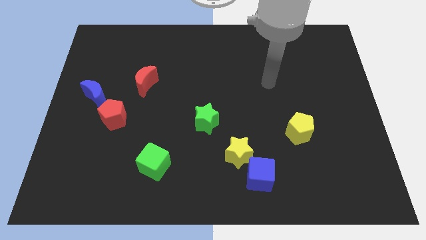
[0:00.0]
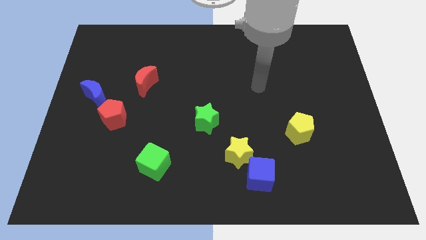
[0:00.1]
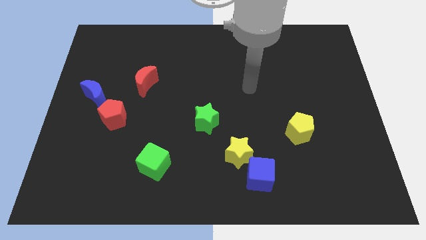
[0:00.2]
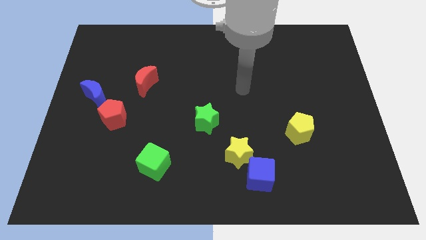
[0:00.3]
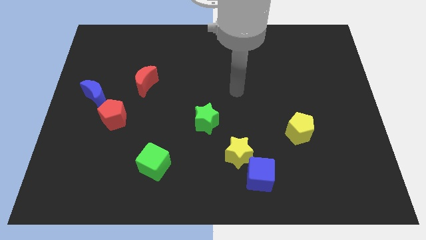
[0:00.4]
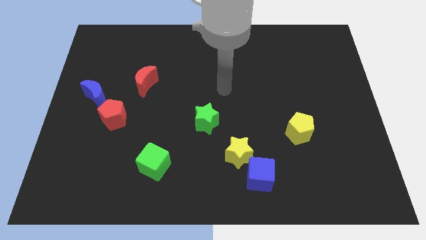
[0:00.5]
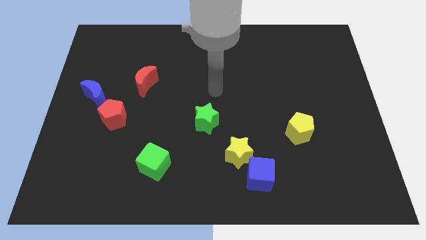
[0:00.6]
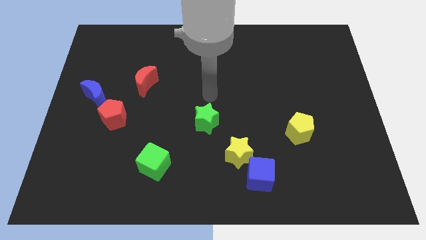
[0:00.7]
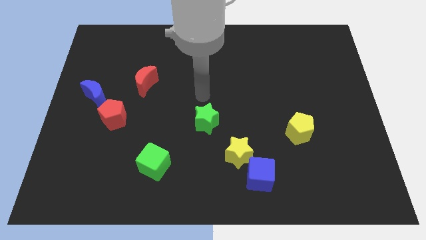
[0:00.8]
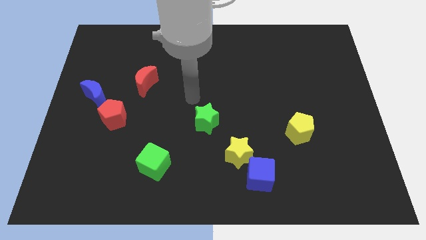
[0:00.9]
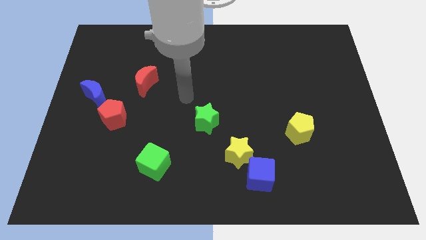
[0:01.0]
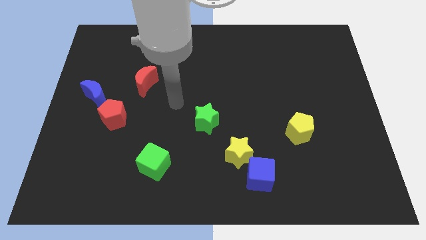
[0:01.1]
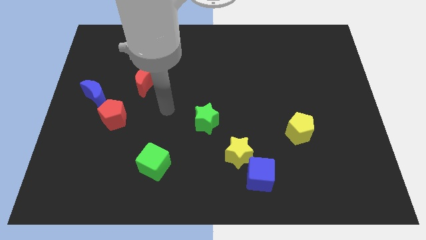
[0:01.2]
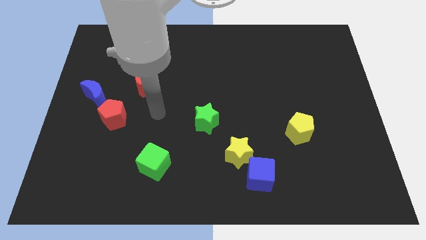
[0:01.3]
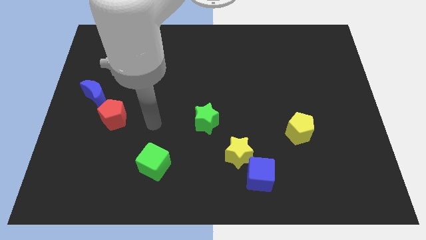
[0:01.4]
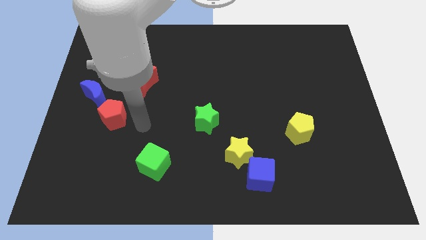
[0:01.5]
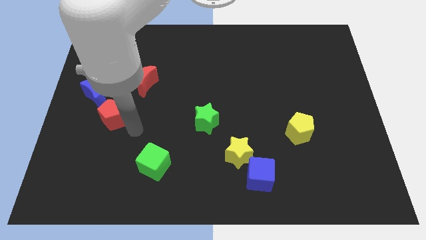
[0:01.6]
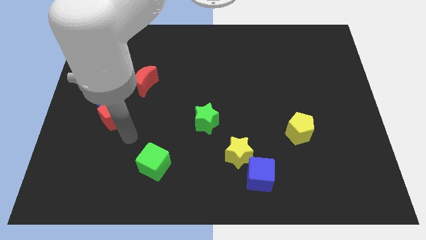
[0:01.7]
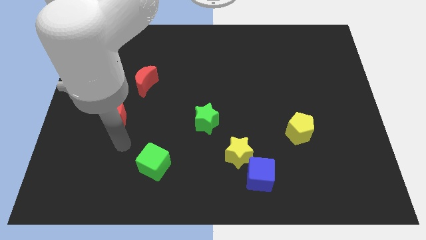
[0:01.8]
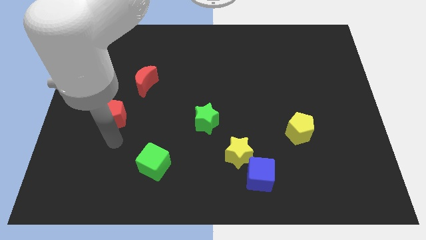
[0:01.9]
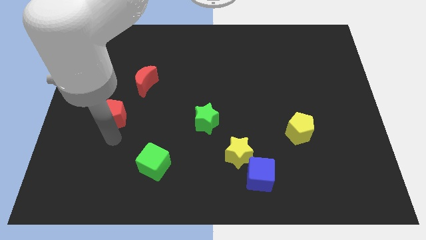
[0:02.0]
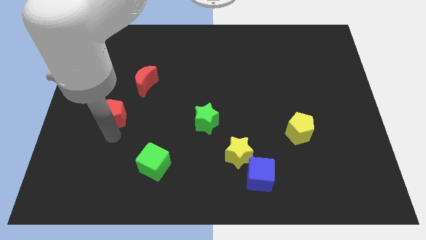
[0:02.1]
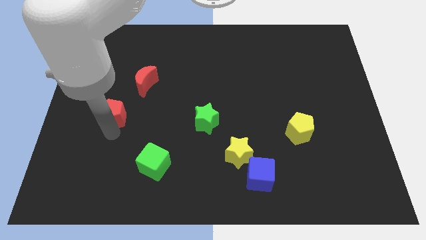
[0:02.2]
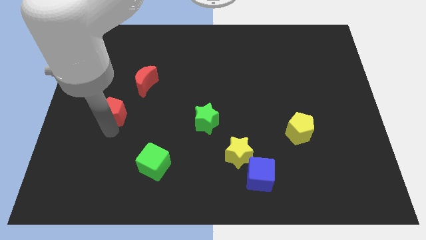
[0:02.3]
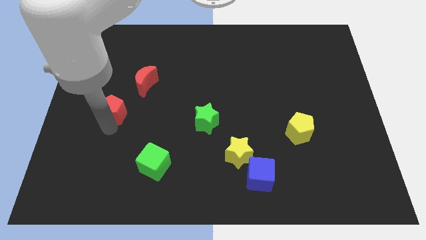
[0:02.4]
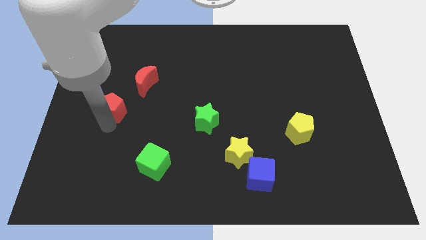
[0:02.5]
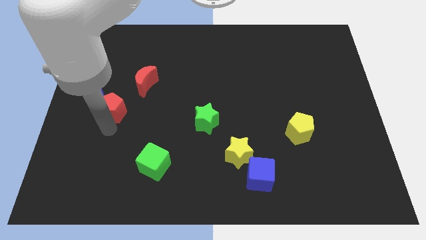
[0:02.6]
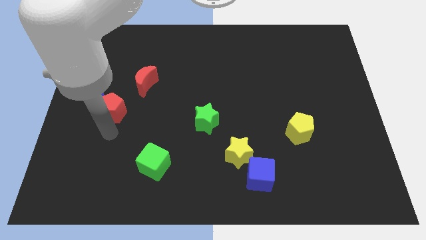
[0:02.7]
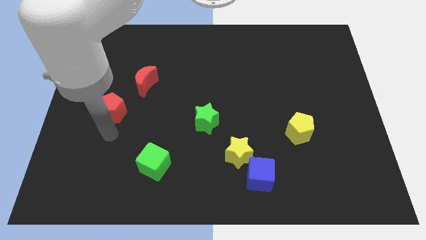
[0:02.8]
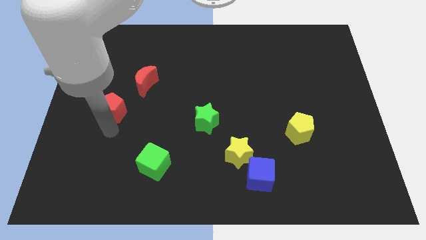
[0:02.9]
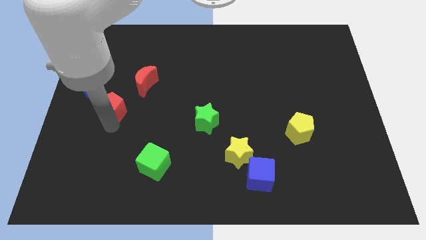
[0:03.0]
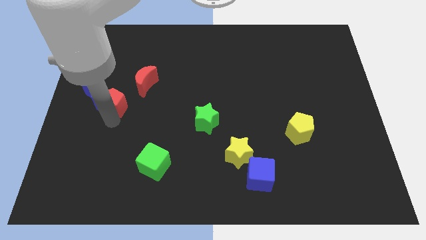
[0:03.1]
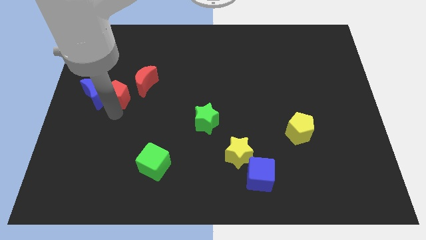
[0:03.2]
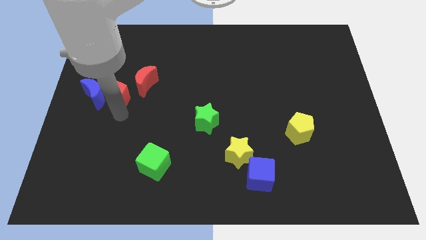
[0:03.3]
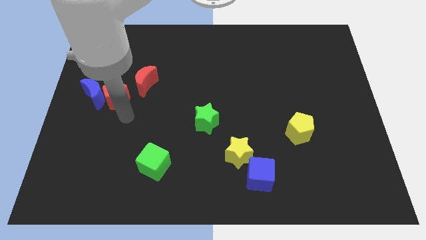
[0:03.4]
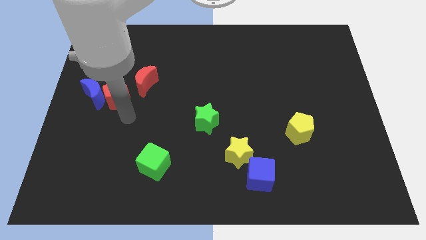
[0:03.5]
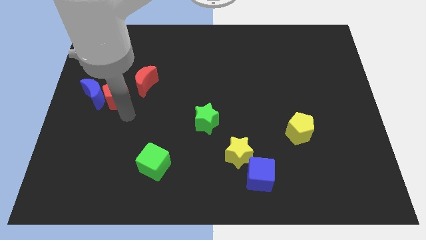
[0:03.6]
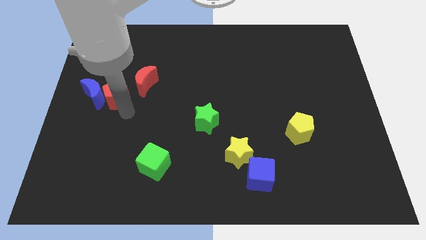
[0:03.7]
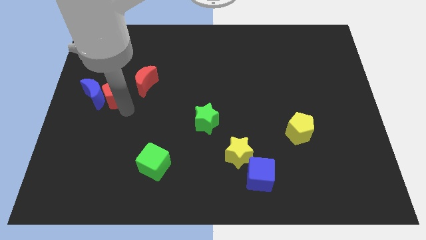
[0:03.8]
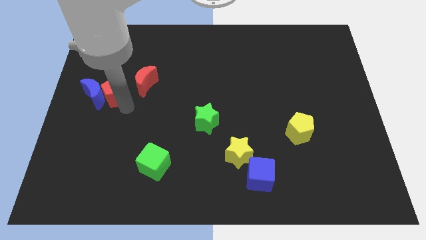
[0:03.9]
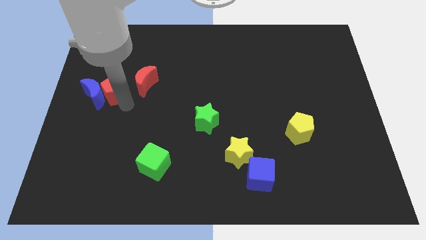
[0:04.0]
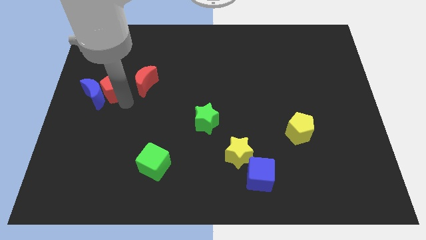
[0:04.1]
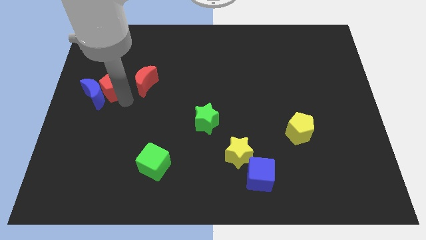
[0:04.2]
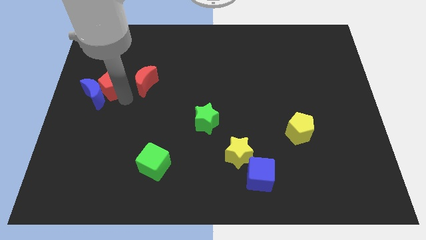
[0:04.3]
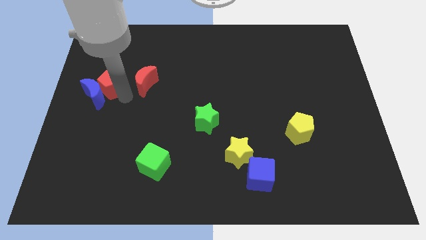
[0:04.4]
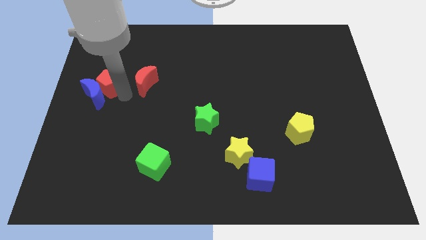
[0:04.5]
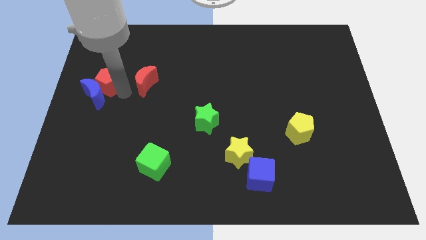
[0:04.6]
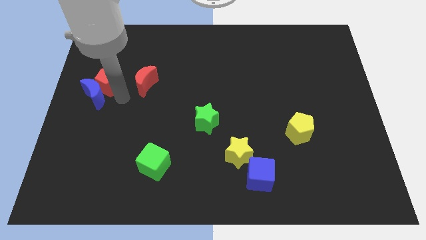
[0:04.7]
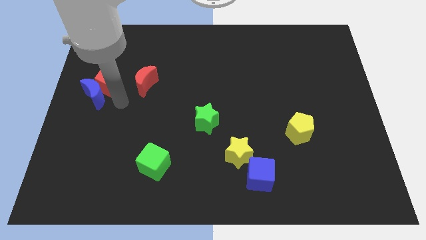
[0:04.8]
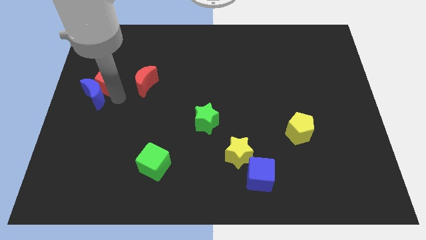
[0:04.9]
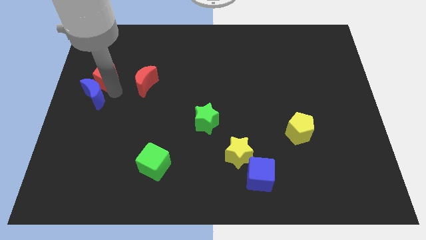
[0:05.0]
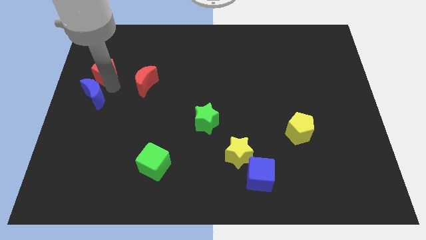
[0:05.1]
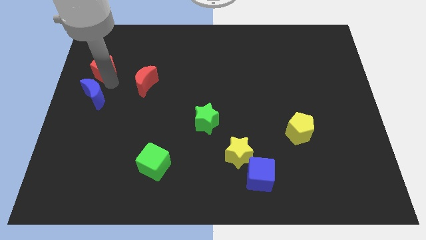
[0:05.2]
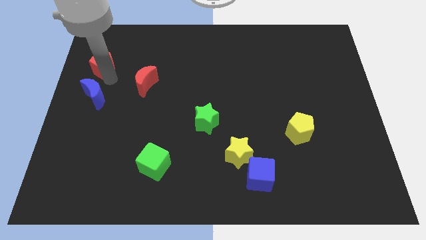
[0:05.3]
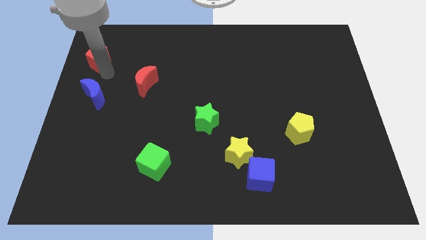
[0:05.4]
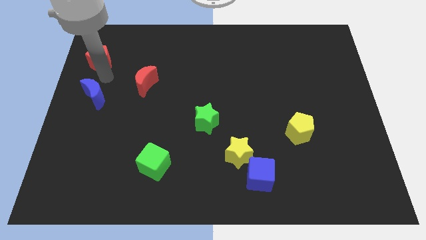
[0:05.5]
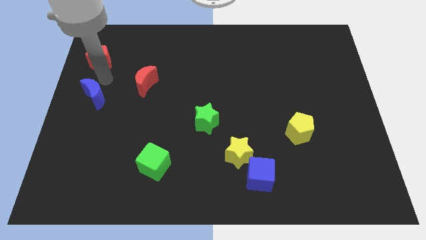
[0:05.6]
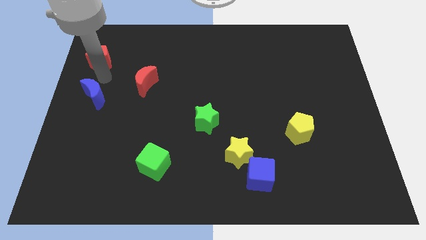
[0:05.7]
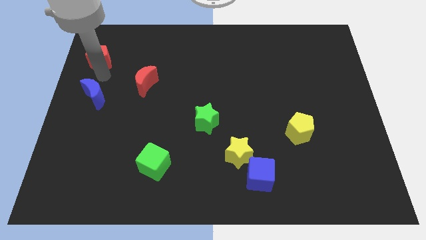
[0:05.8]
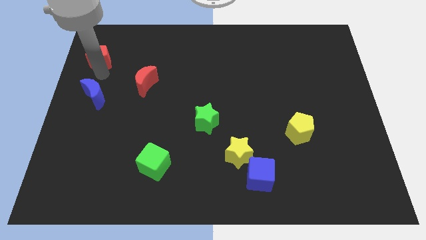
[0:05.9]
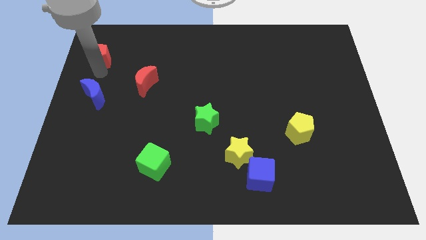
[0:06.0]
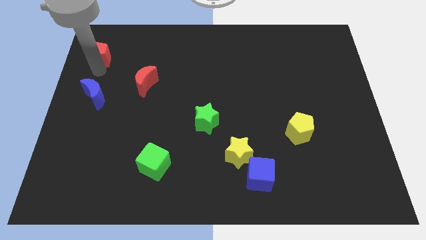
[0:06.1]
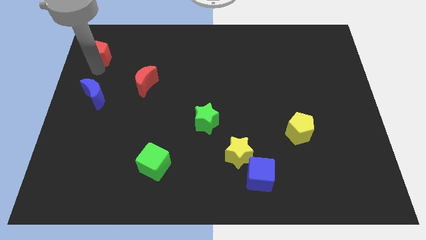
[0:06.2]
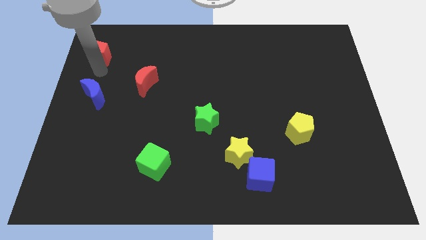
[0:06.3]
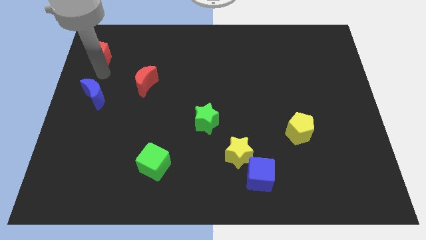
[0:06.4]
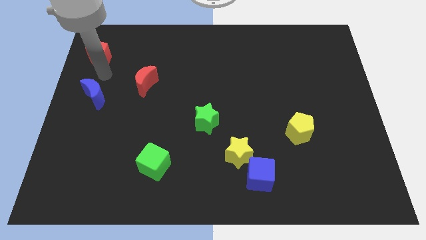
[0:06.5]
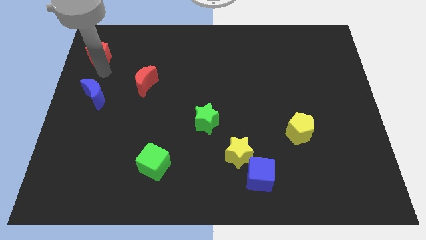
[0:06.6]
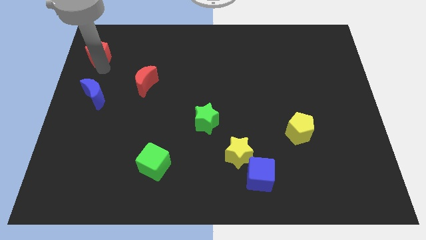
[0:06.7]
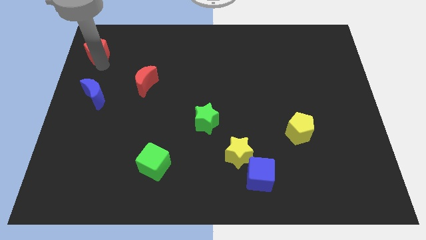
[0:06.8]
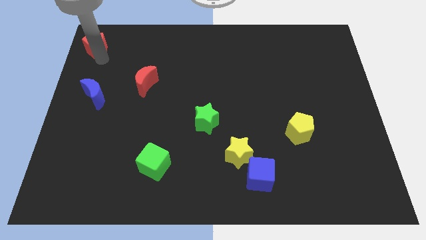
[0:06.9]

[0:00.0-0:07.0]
slide the red pentagon to the top left corner
